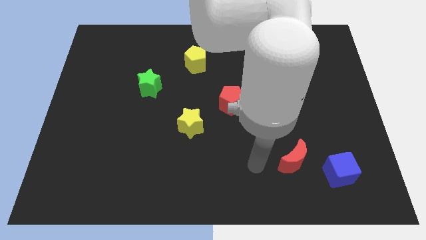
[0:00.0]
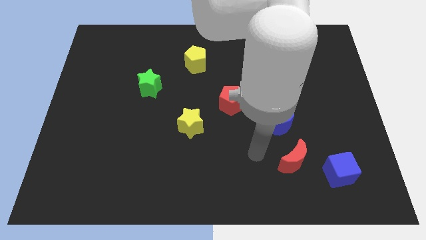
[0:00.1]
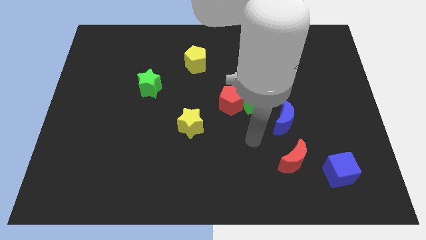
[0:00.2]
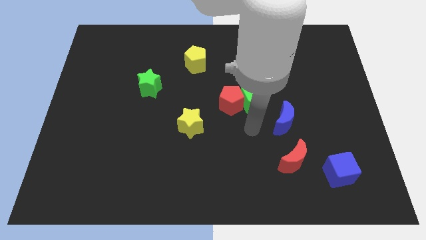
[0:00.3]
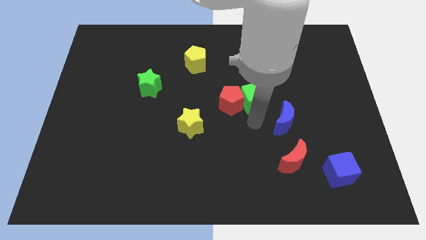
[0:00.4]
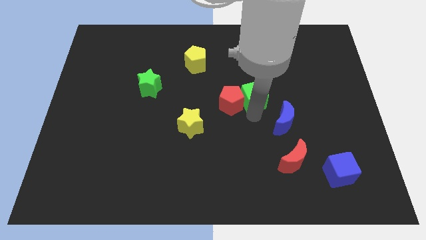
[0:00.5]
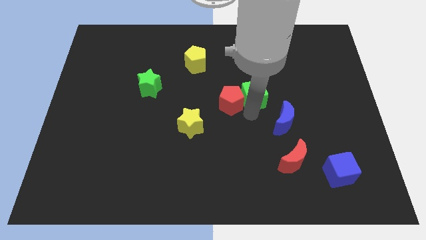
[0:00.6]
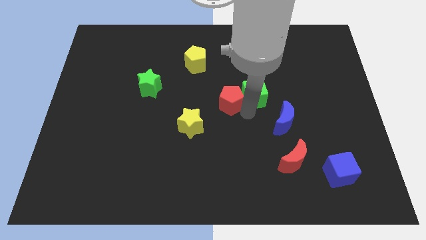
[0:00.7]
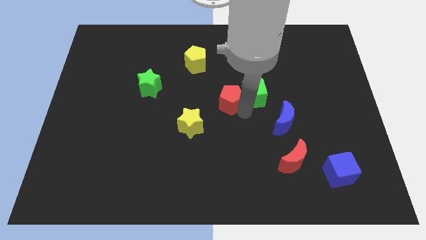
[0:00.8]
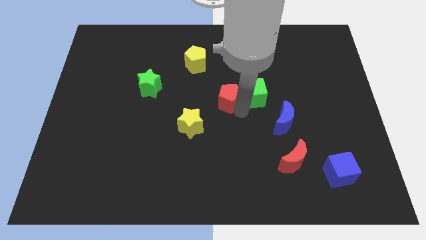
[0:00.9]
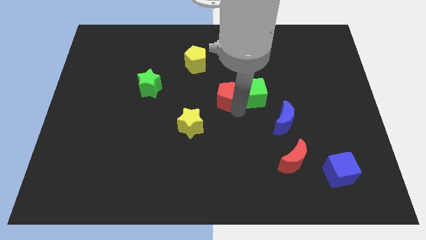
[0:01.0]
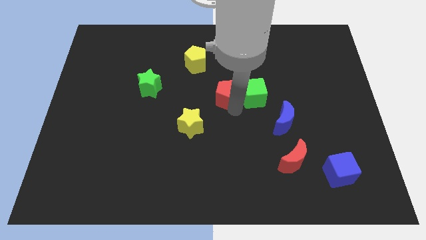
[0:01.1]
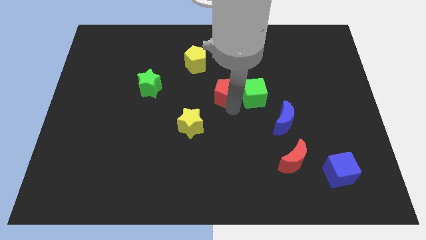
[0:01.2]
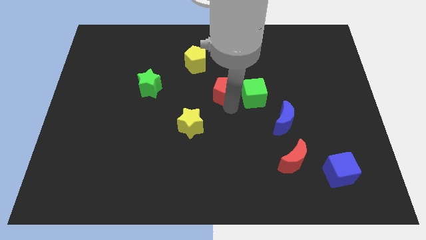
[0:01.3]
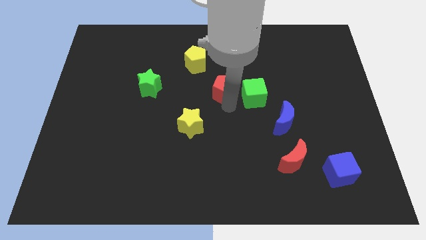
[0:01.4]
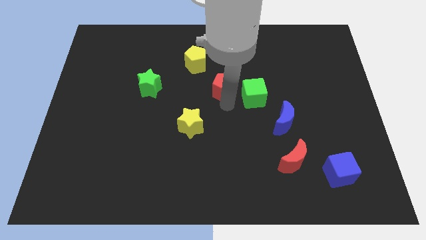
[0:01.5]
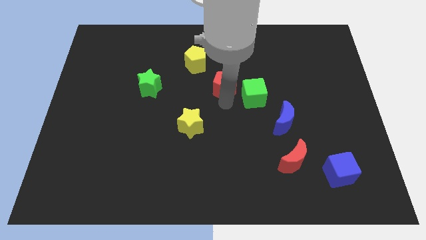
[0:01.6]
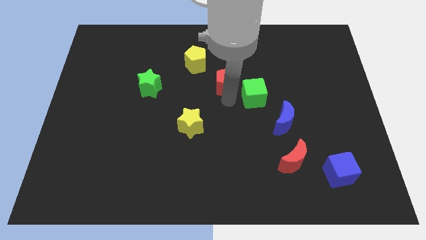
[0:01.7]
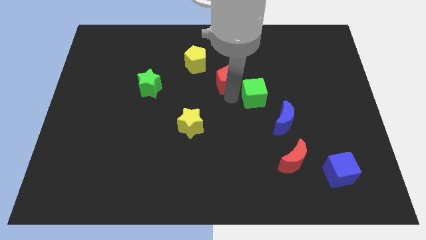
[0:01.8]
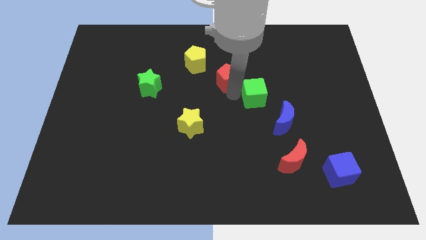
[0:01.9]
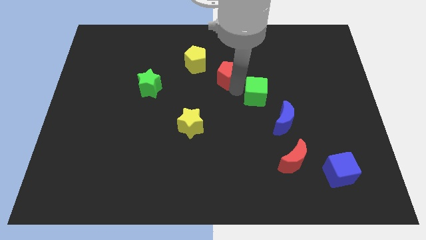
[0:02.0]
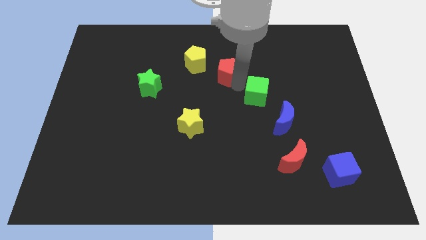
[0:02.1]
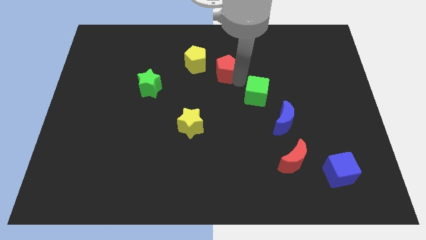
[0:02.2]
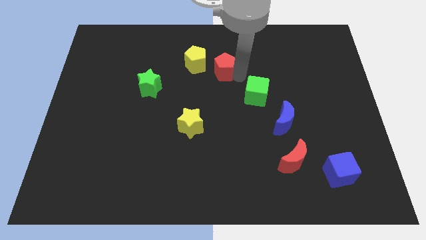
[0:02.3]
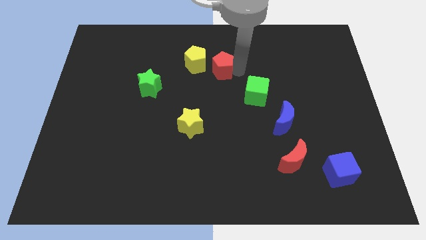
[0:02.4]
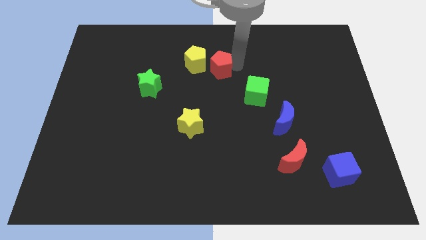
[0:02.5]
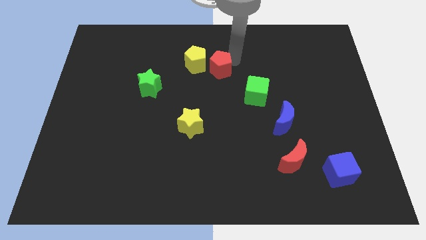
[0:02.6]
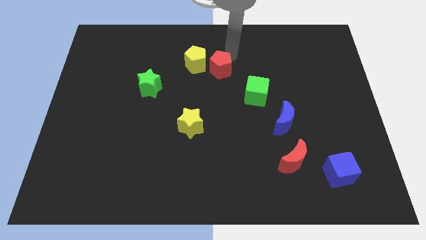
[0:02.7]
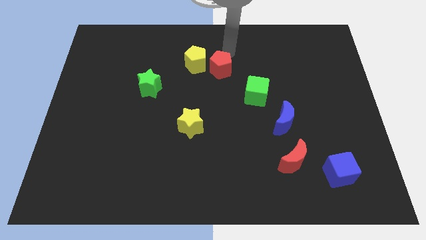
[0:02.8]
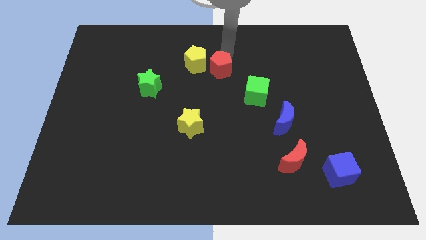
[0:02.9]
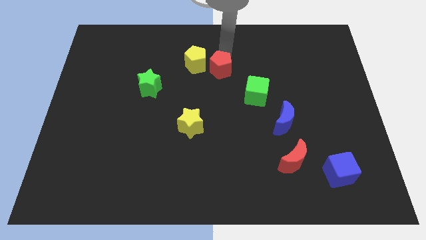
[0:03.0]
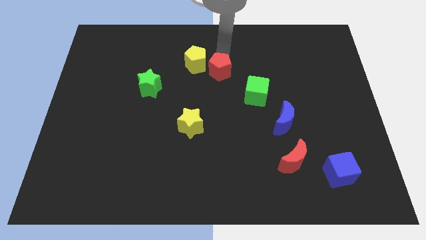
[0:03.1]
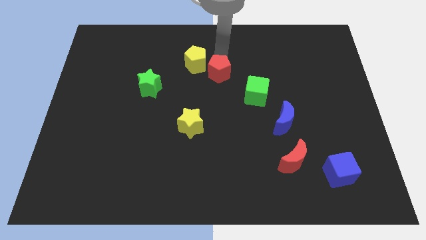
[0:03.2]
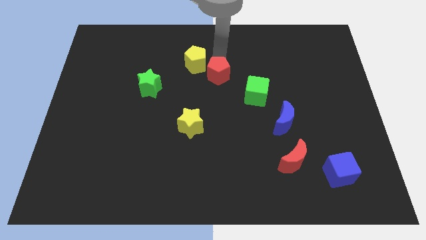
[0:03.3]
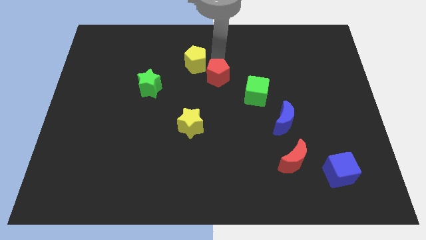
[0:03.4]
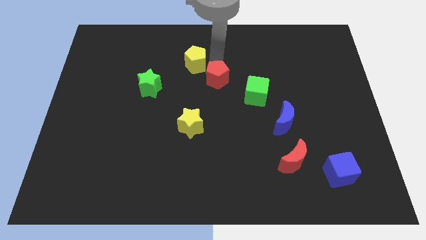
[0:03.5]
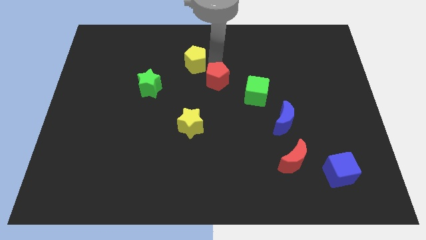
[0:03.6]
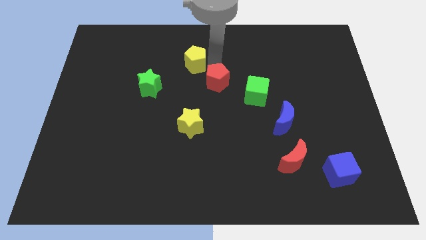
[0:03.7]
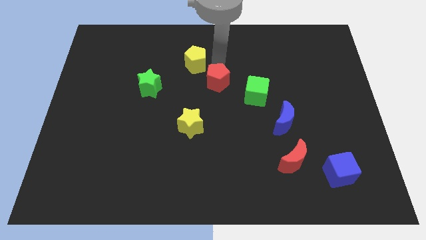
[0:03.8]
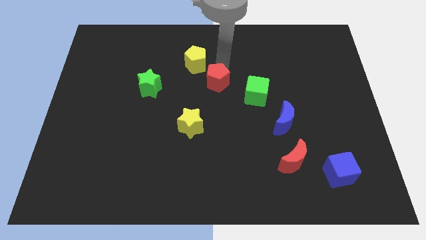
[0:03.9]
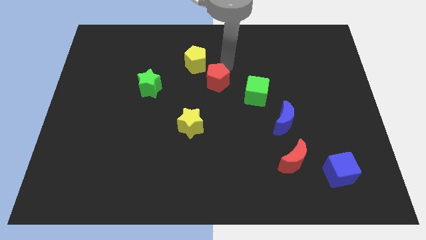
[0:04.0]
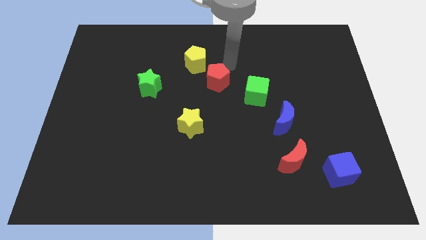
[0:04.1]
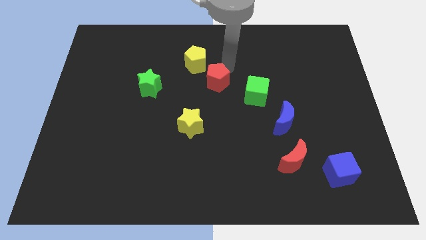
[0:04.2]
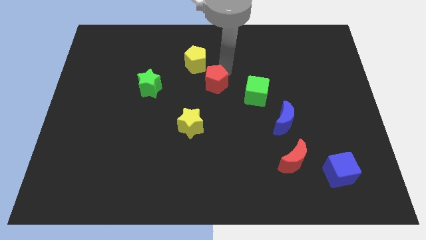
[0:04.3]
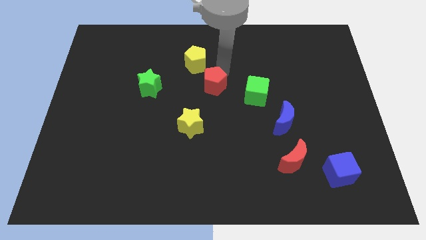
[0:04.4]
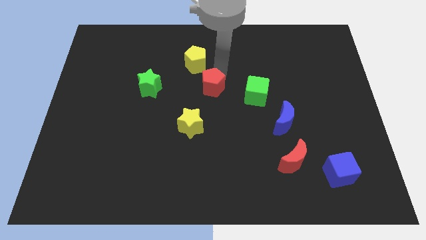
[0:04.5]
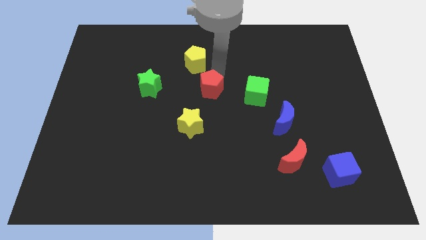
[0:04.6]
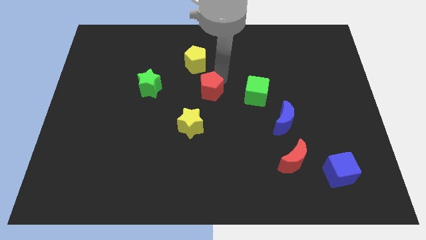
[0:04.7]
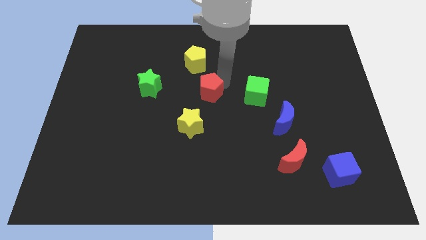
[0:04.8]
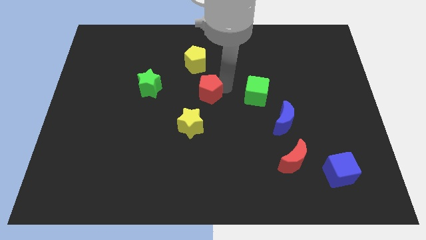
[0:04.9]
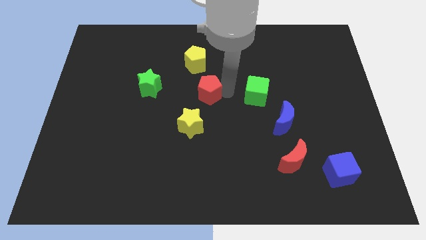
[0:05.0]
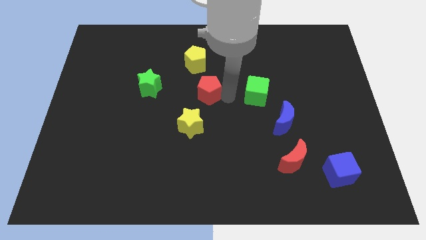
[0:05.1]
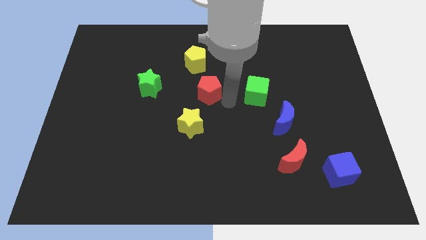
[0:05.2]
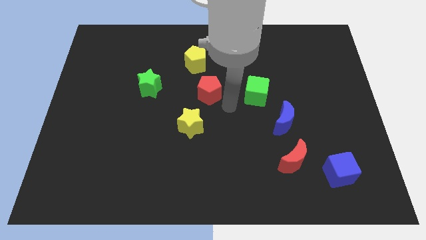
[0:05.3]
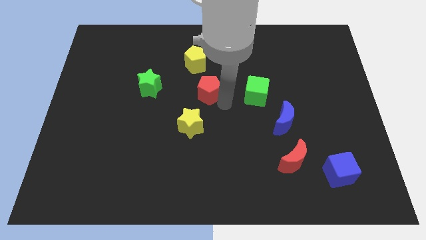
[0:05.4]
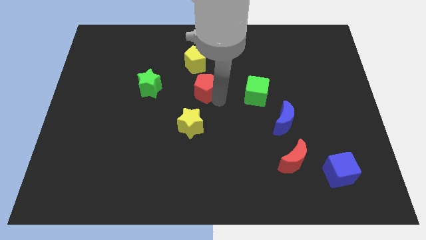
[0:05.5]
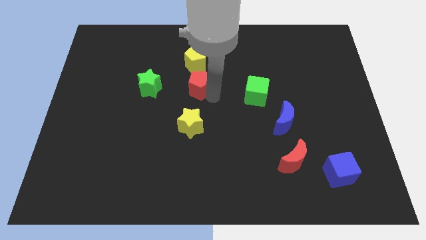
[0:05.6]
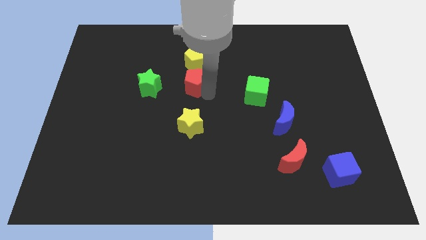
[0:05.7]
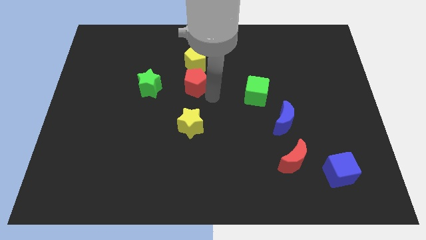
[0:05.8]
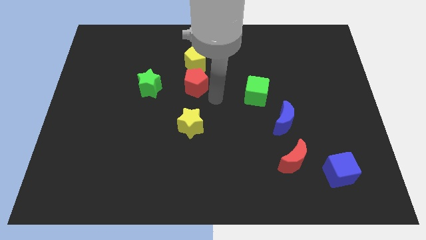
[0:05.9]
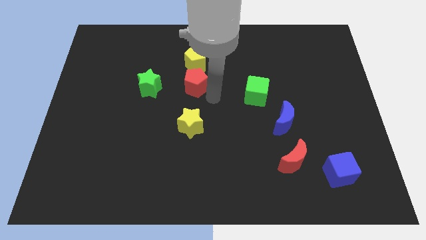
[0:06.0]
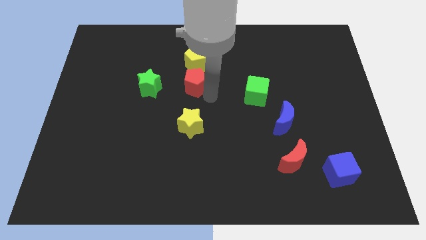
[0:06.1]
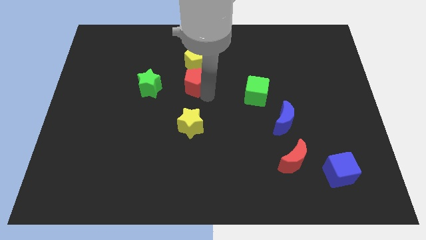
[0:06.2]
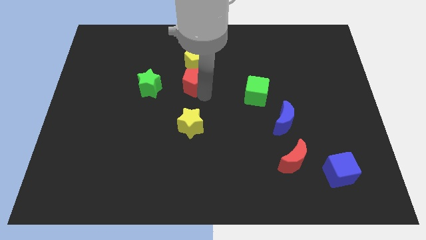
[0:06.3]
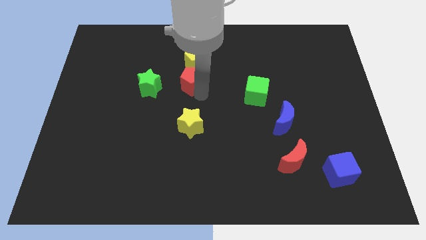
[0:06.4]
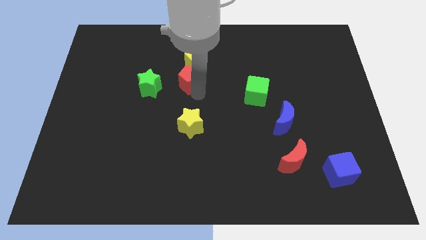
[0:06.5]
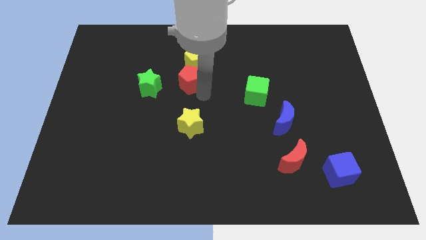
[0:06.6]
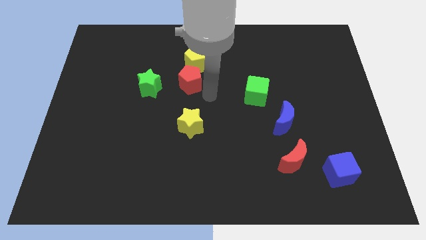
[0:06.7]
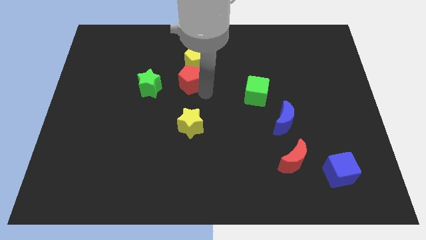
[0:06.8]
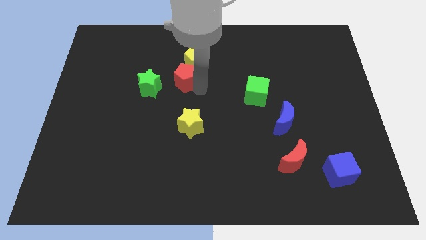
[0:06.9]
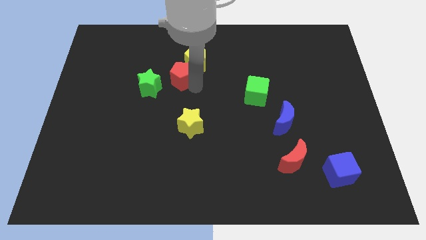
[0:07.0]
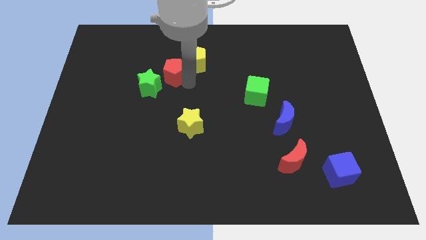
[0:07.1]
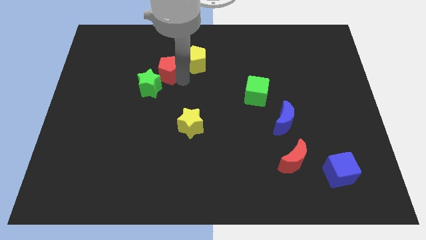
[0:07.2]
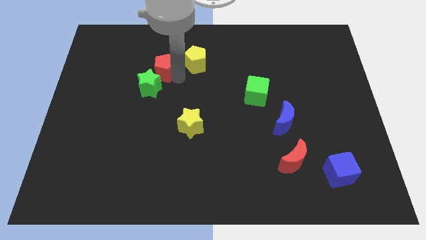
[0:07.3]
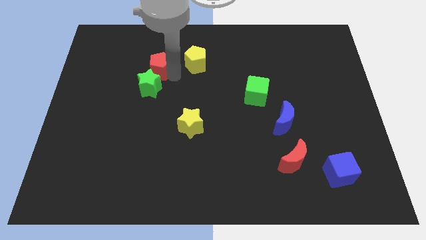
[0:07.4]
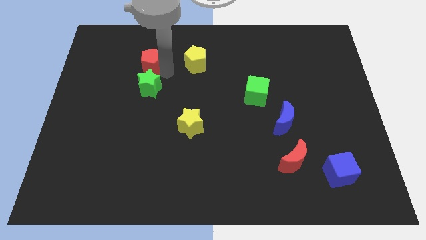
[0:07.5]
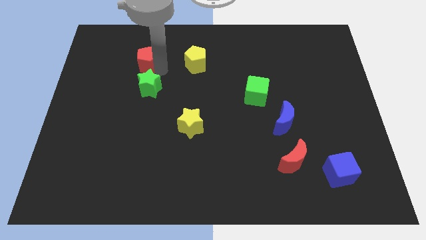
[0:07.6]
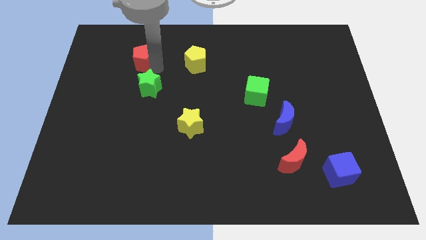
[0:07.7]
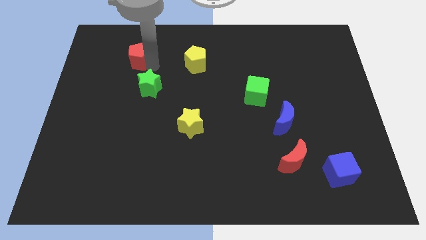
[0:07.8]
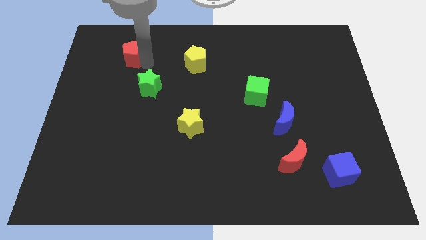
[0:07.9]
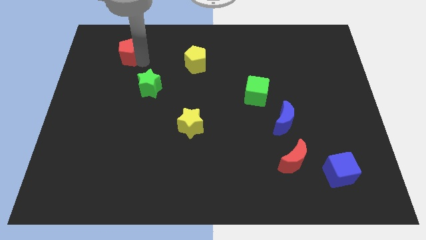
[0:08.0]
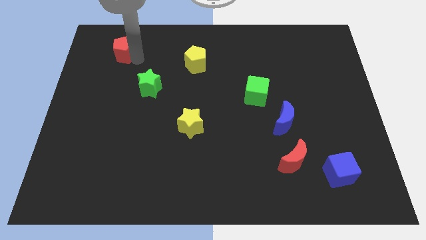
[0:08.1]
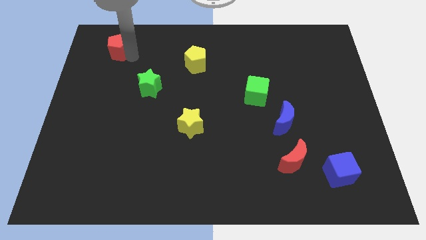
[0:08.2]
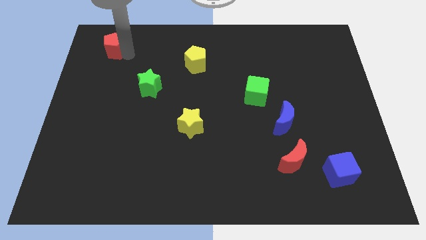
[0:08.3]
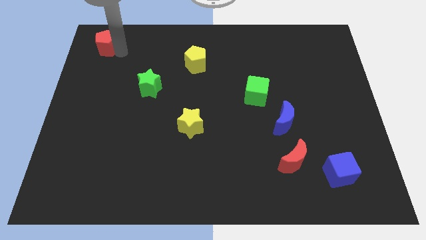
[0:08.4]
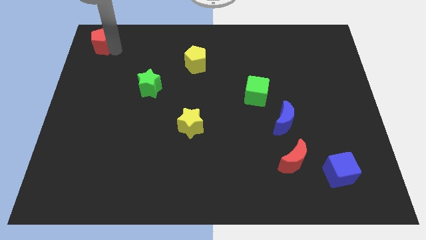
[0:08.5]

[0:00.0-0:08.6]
push the red pentagon to the upper left corner
